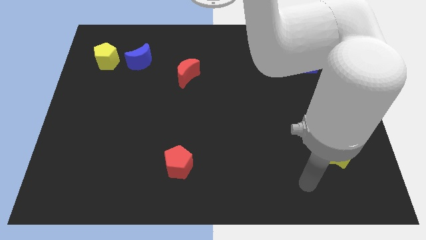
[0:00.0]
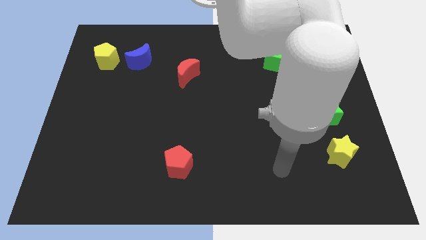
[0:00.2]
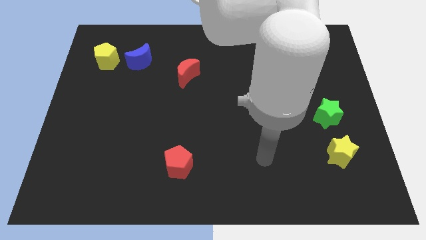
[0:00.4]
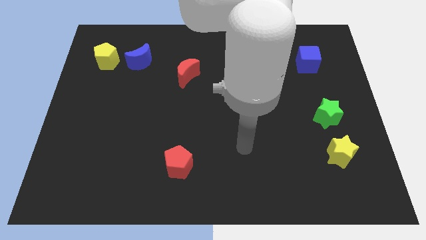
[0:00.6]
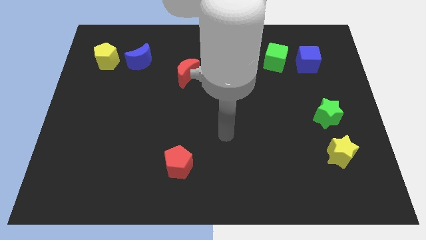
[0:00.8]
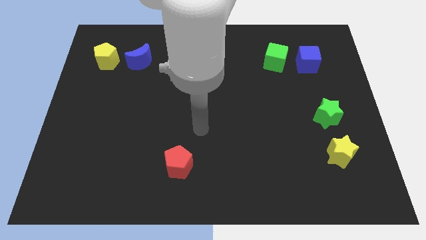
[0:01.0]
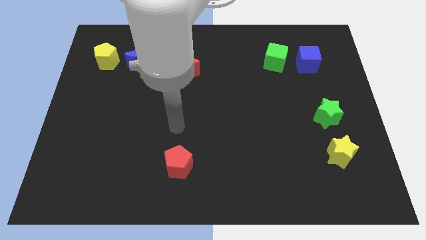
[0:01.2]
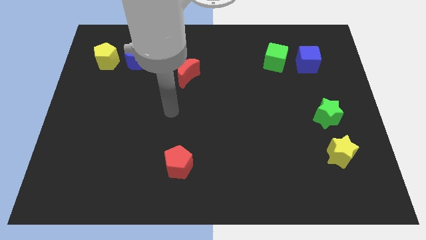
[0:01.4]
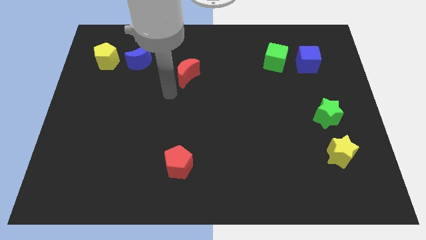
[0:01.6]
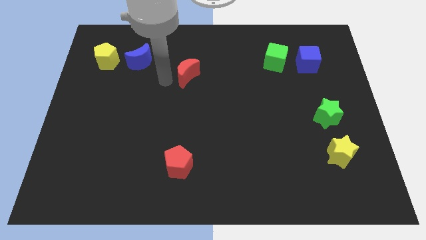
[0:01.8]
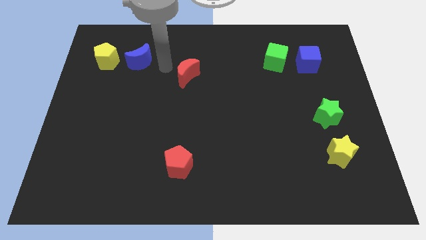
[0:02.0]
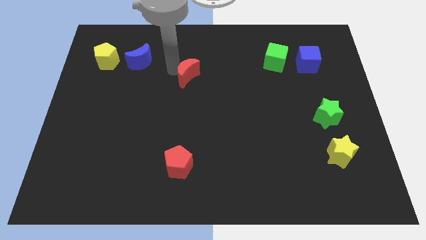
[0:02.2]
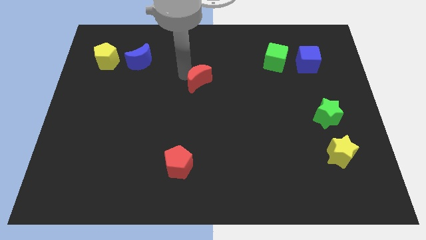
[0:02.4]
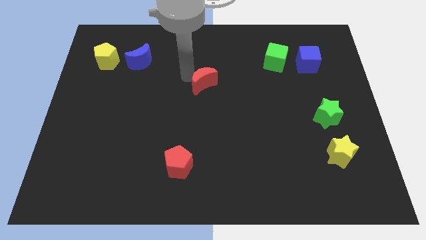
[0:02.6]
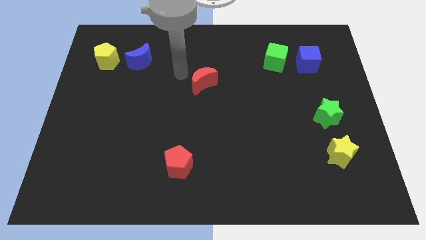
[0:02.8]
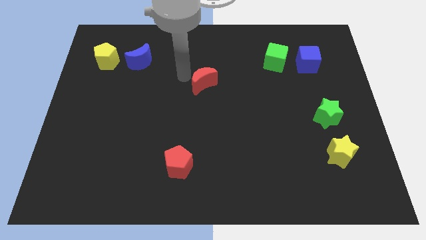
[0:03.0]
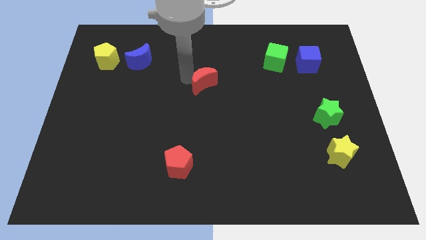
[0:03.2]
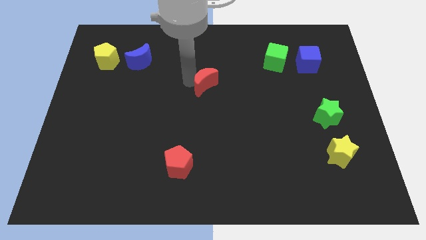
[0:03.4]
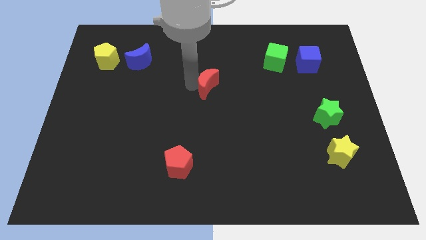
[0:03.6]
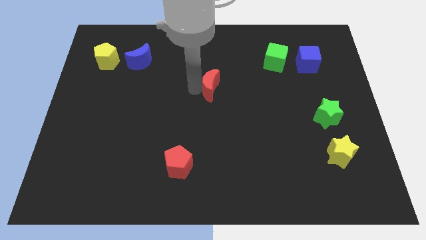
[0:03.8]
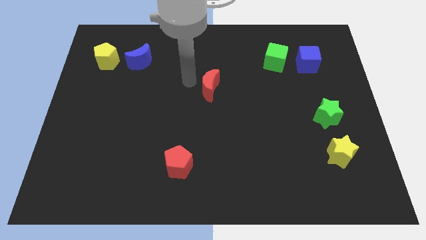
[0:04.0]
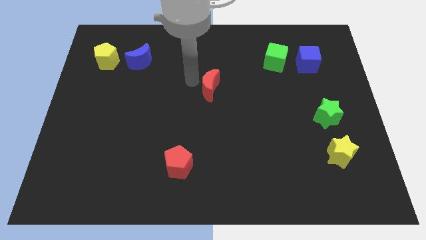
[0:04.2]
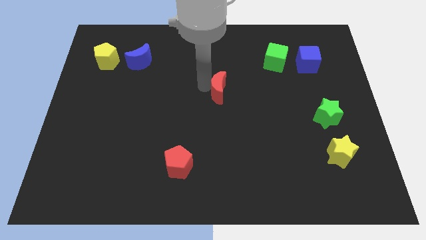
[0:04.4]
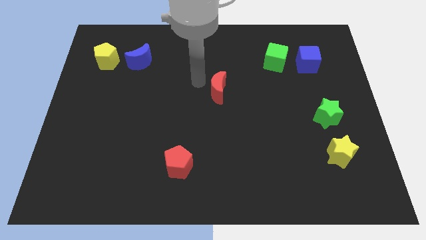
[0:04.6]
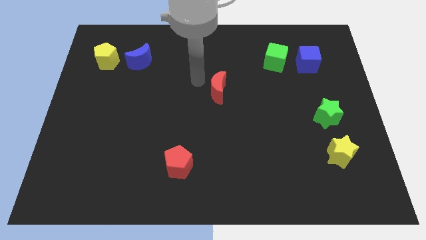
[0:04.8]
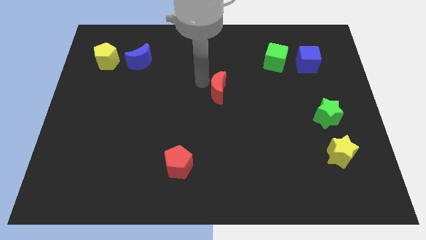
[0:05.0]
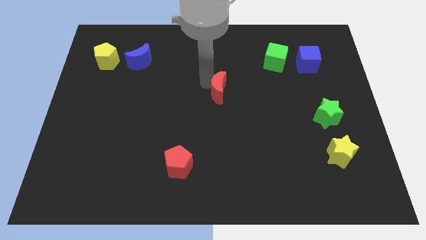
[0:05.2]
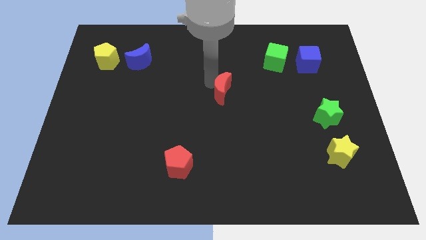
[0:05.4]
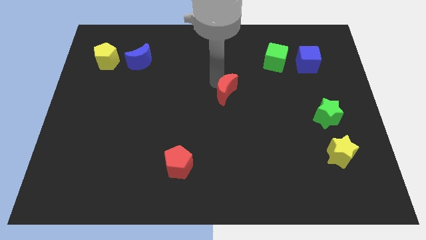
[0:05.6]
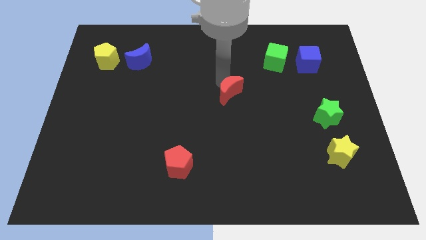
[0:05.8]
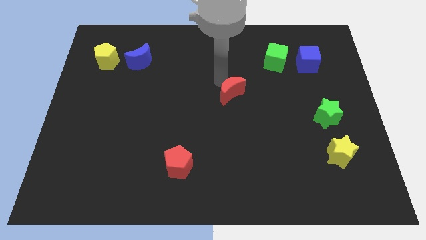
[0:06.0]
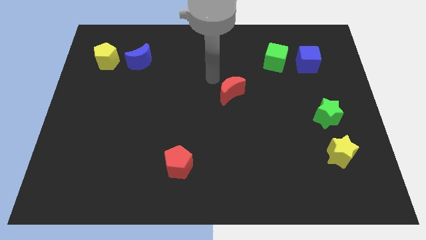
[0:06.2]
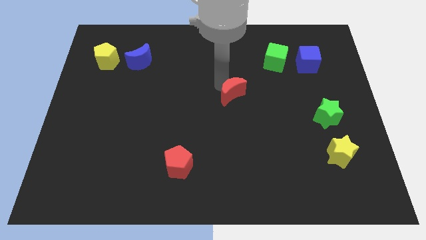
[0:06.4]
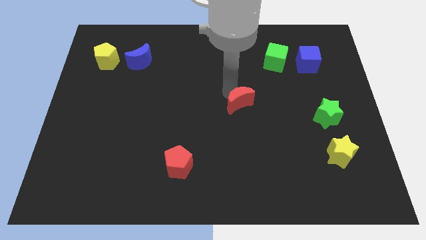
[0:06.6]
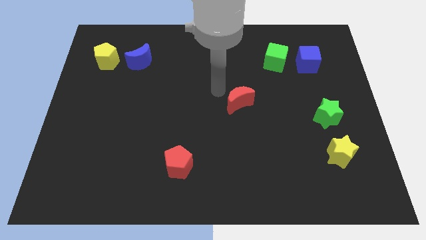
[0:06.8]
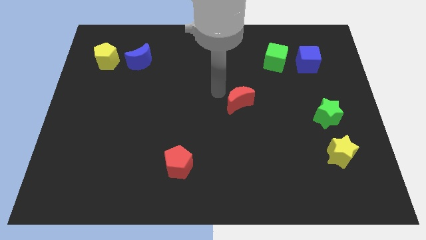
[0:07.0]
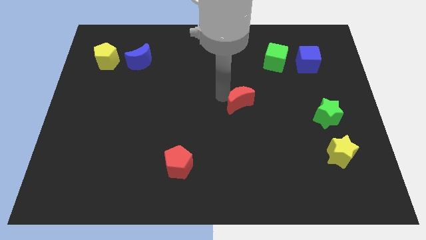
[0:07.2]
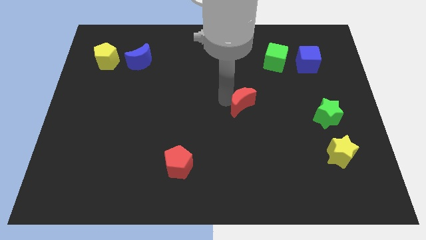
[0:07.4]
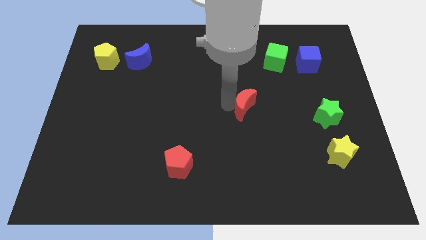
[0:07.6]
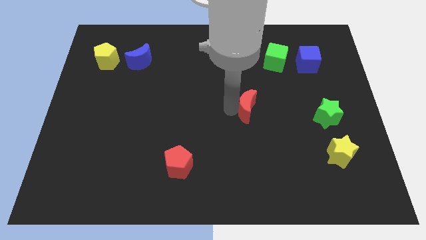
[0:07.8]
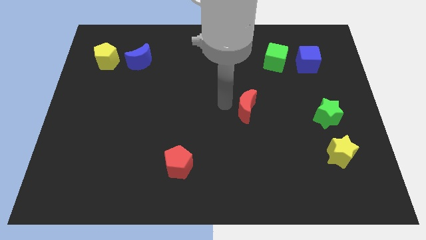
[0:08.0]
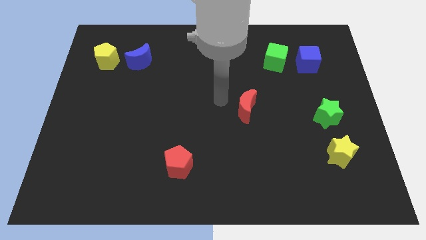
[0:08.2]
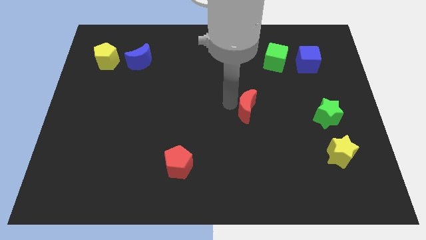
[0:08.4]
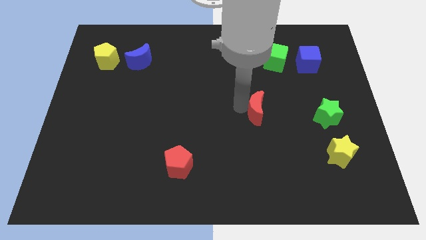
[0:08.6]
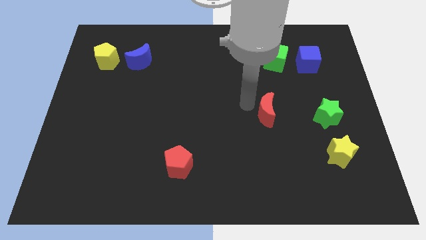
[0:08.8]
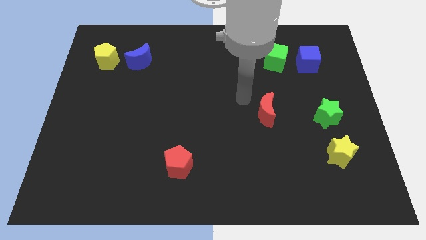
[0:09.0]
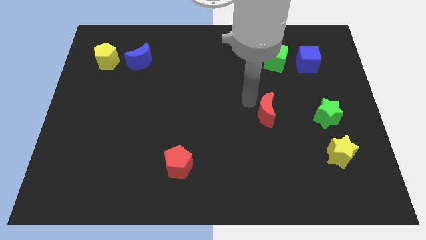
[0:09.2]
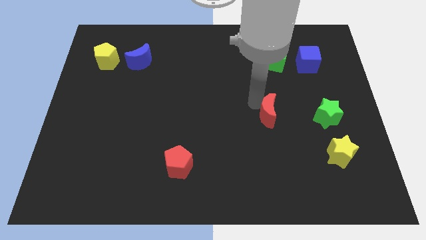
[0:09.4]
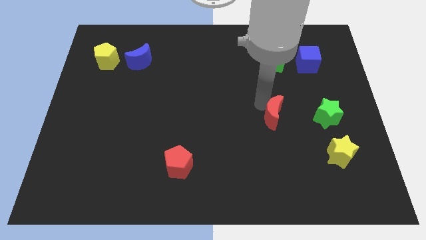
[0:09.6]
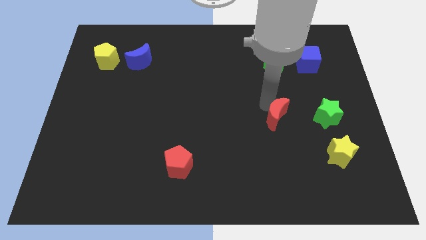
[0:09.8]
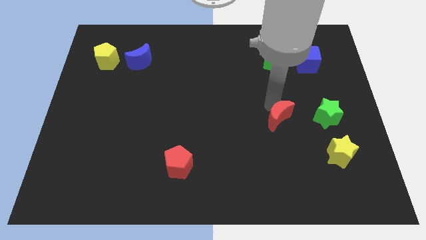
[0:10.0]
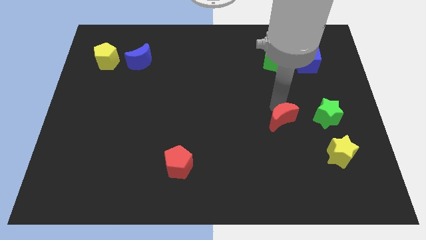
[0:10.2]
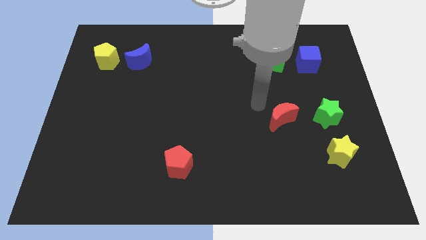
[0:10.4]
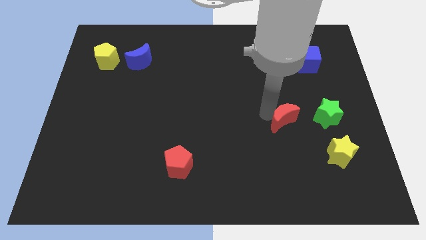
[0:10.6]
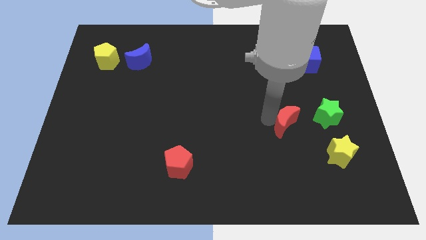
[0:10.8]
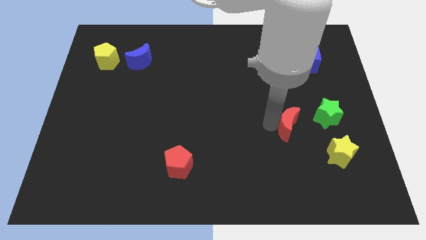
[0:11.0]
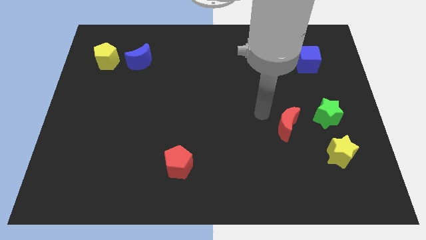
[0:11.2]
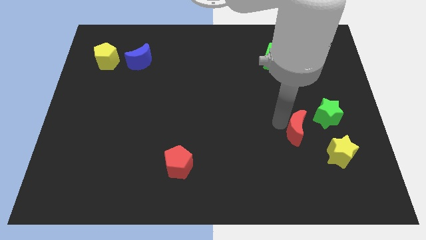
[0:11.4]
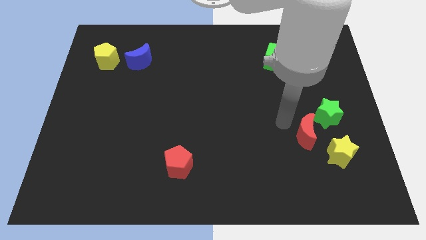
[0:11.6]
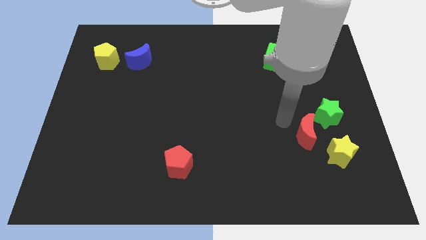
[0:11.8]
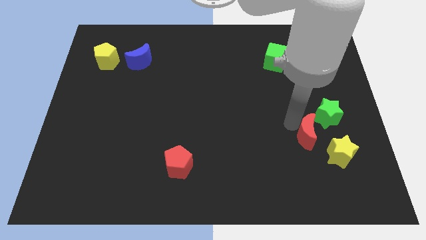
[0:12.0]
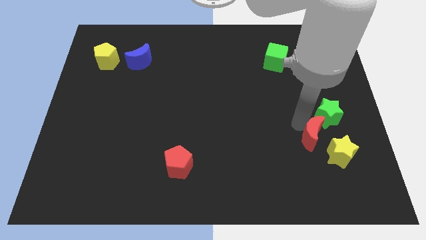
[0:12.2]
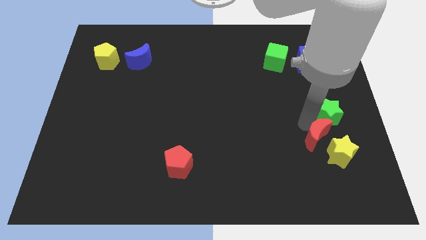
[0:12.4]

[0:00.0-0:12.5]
slide the red moon to the yellow star

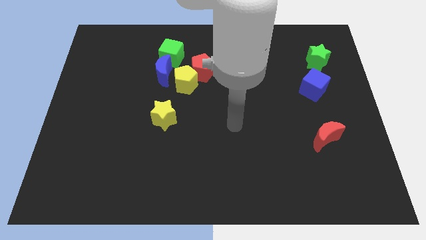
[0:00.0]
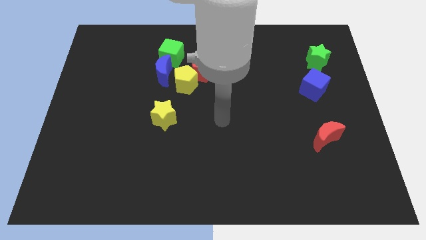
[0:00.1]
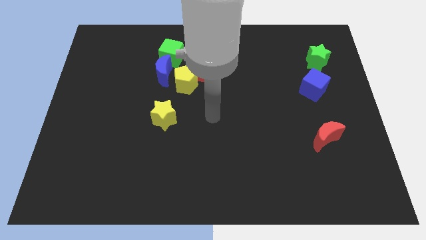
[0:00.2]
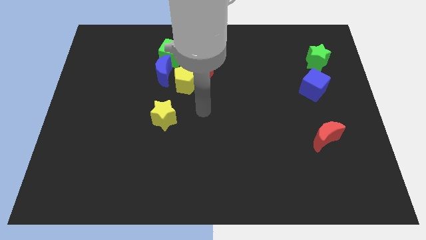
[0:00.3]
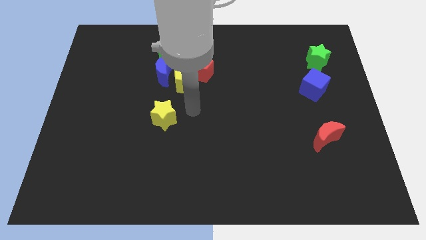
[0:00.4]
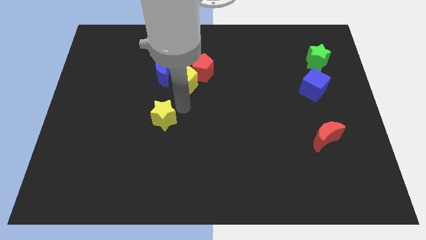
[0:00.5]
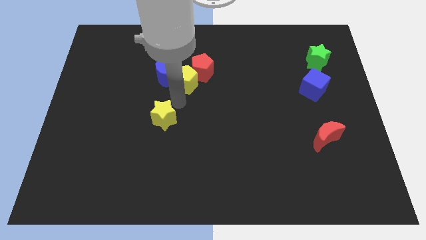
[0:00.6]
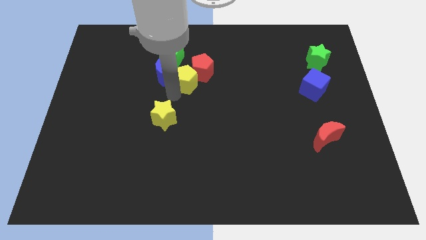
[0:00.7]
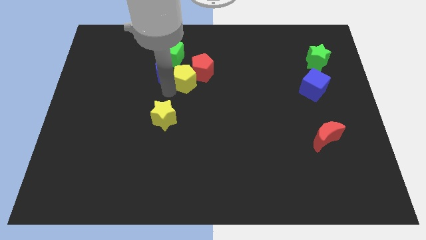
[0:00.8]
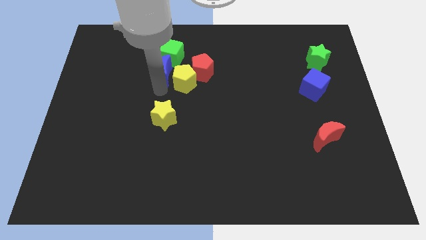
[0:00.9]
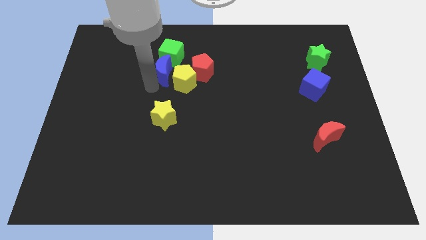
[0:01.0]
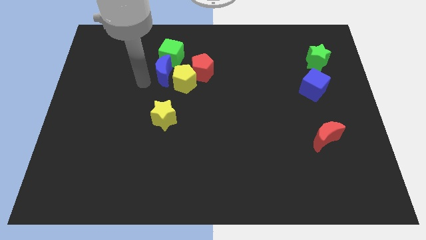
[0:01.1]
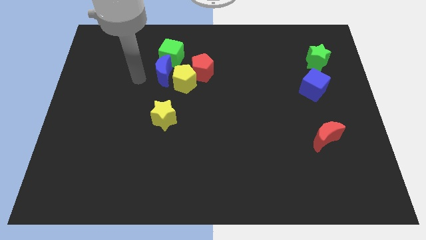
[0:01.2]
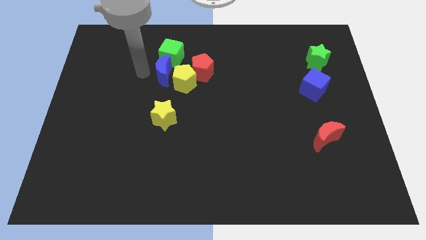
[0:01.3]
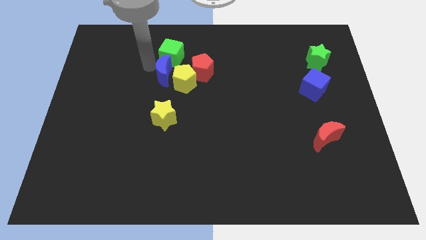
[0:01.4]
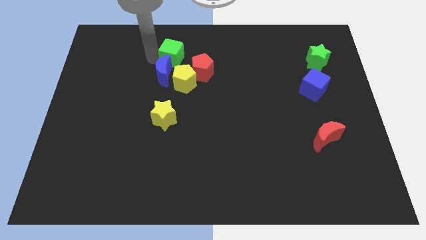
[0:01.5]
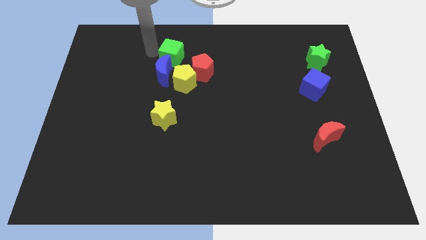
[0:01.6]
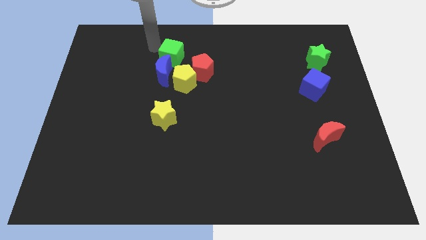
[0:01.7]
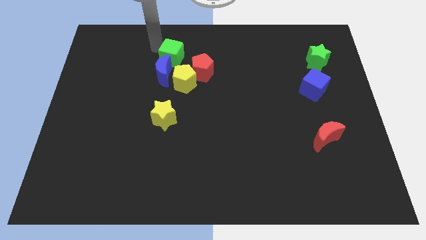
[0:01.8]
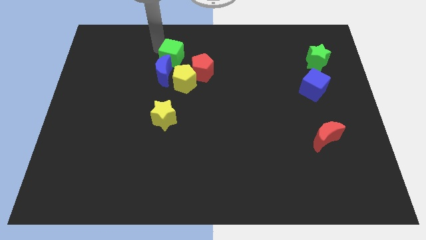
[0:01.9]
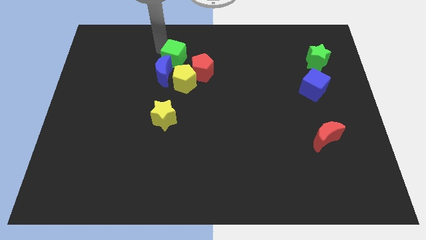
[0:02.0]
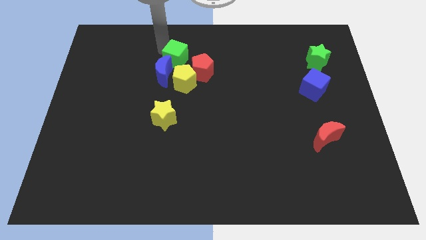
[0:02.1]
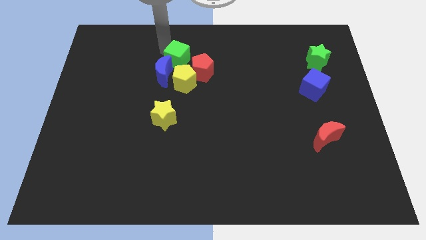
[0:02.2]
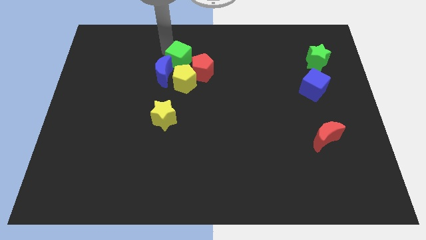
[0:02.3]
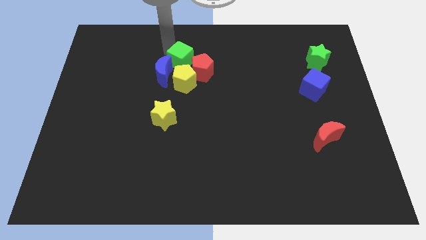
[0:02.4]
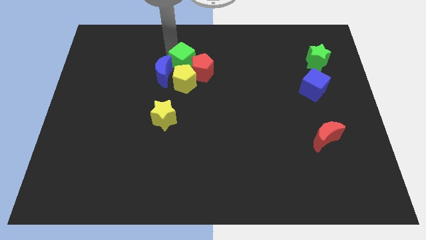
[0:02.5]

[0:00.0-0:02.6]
put the green cube close to the red pentagon
